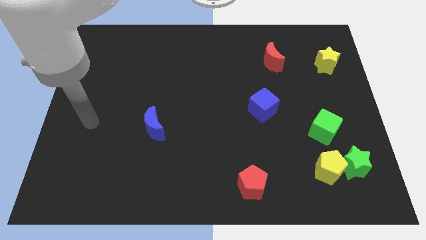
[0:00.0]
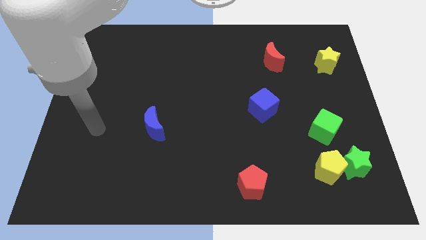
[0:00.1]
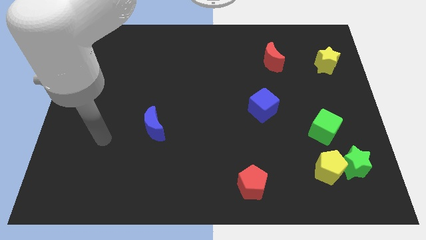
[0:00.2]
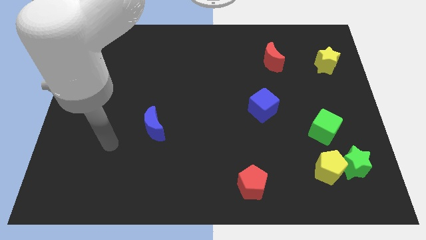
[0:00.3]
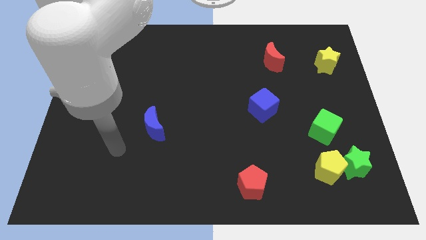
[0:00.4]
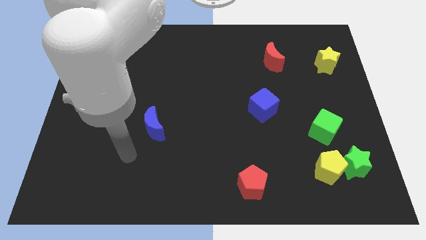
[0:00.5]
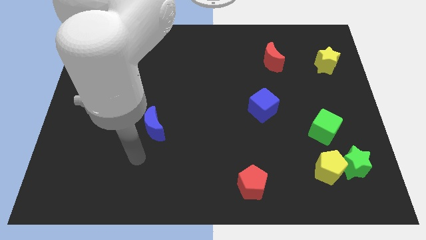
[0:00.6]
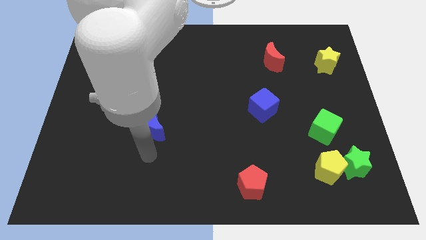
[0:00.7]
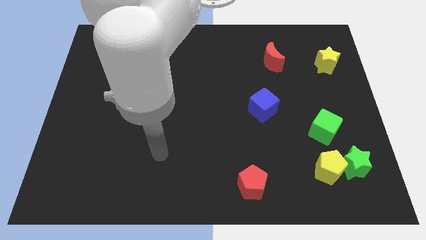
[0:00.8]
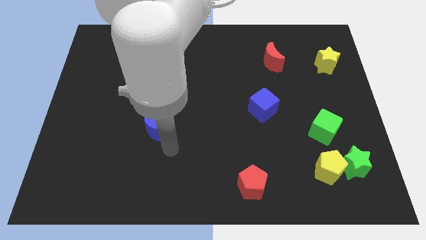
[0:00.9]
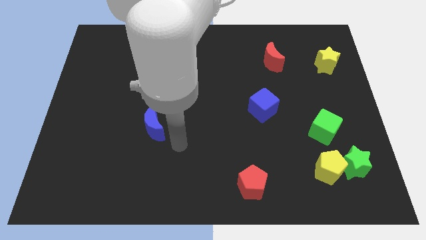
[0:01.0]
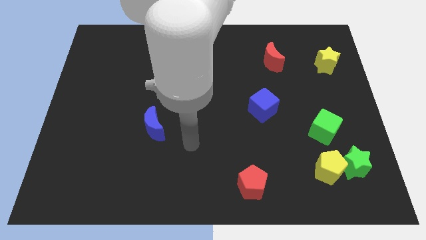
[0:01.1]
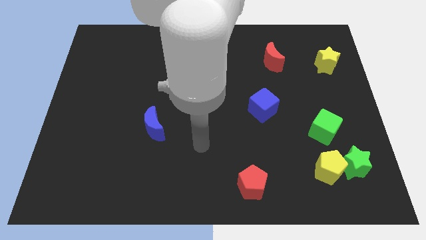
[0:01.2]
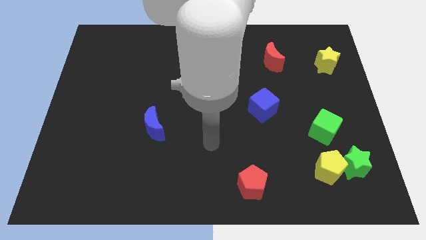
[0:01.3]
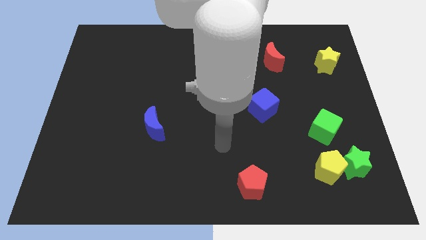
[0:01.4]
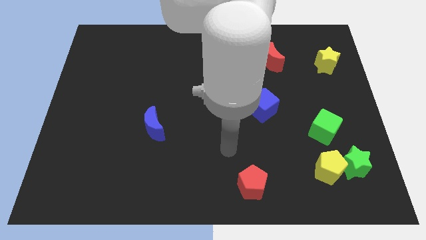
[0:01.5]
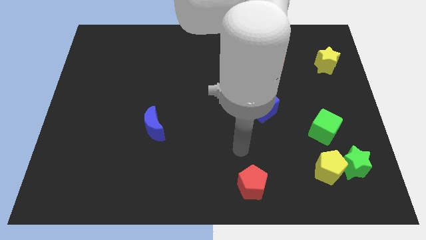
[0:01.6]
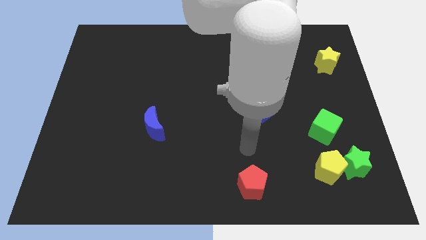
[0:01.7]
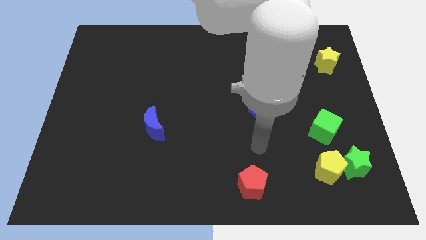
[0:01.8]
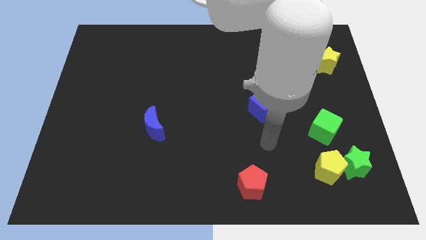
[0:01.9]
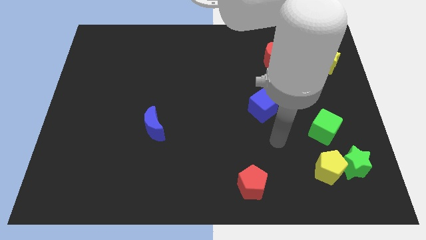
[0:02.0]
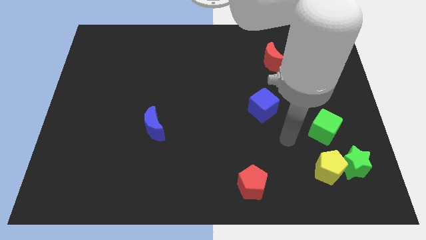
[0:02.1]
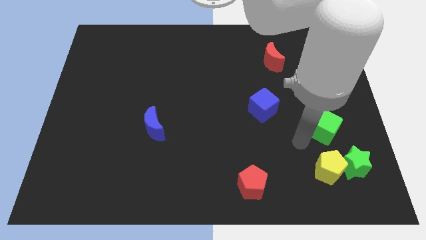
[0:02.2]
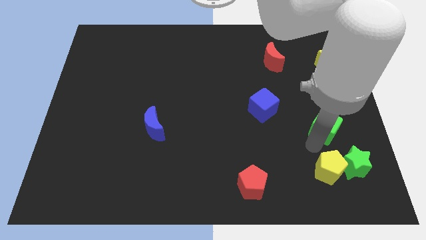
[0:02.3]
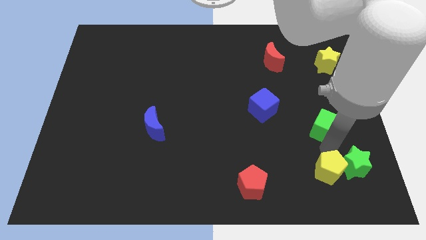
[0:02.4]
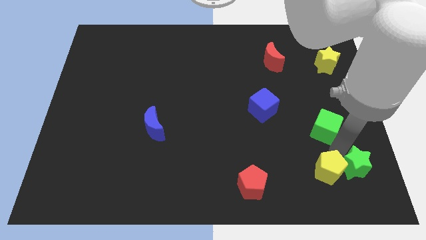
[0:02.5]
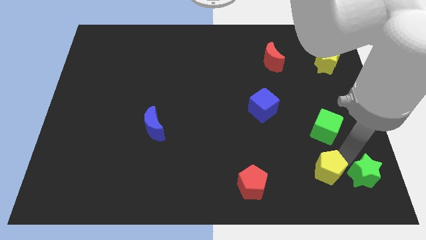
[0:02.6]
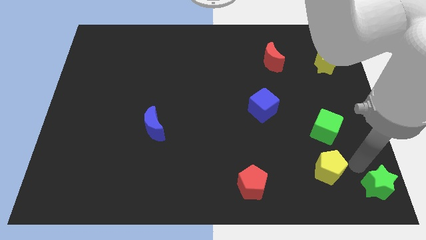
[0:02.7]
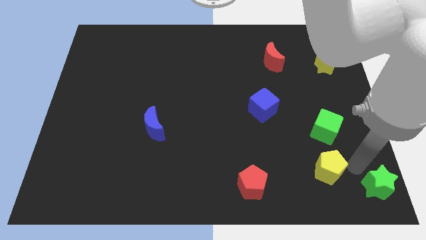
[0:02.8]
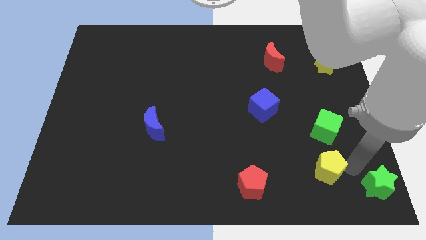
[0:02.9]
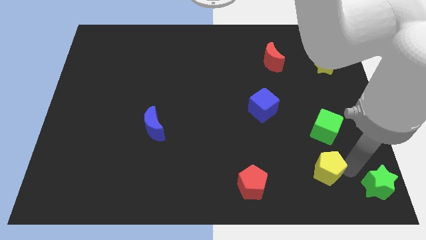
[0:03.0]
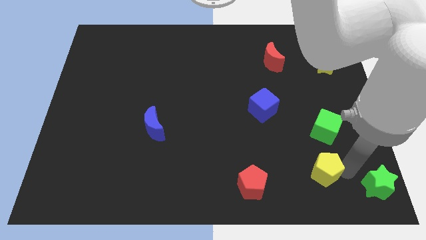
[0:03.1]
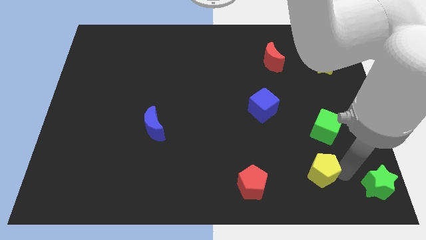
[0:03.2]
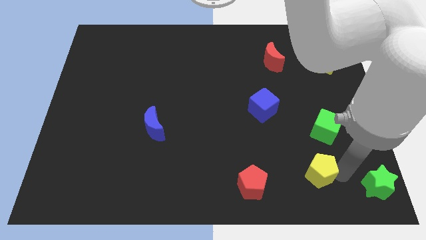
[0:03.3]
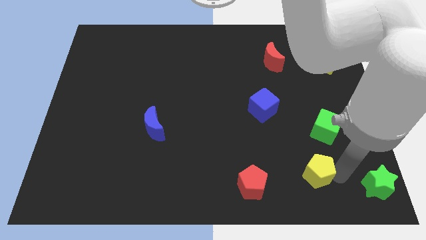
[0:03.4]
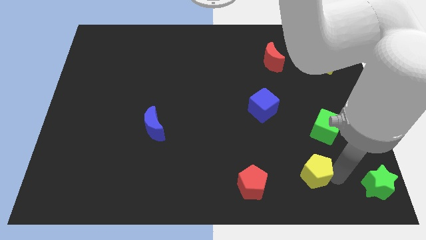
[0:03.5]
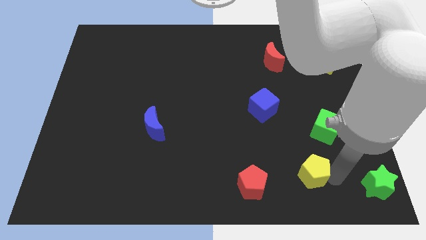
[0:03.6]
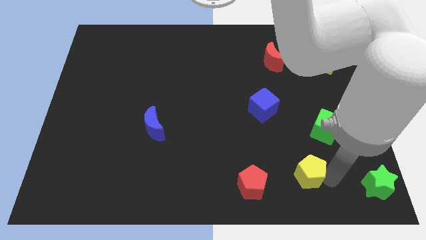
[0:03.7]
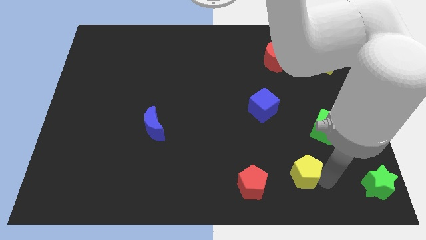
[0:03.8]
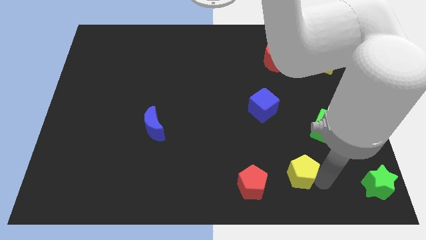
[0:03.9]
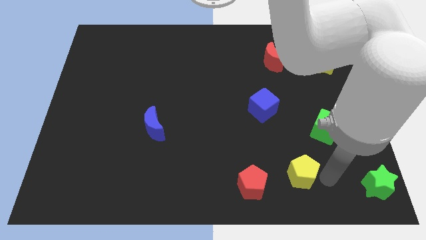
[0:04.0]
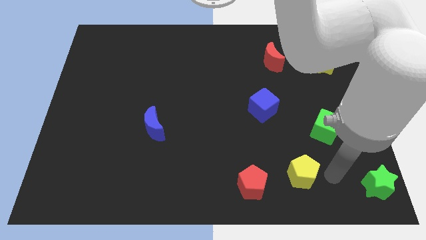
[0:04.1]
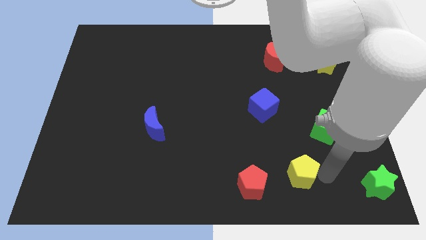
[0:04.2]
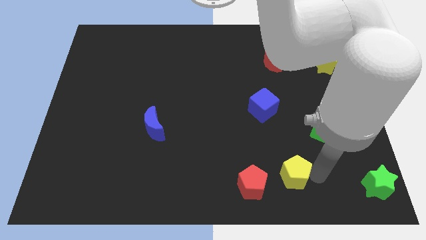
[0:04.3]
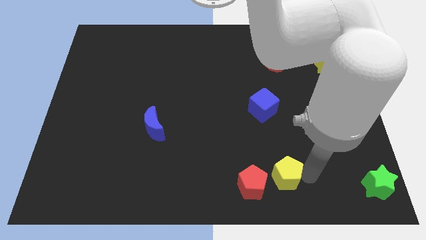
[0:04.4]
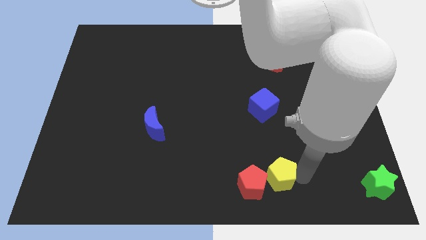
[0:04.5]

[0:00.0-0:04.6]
push the yellow pentagon close to the red pentagon

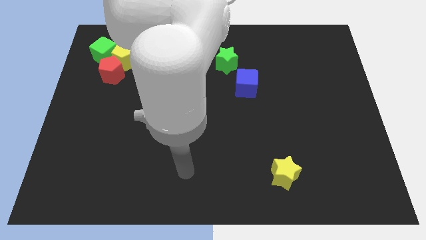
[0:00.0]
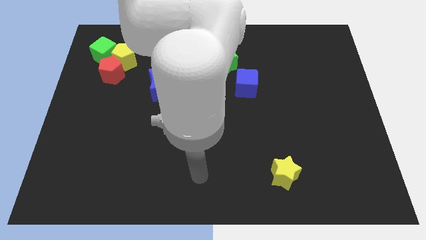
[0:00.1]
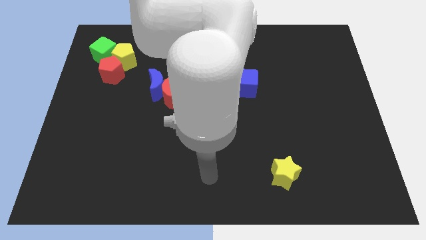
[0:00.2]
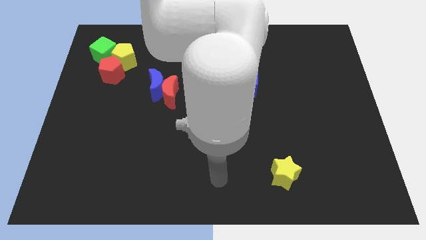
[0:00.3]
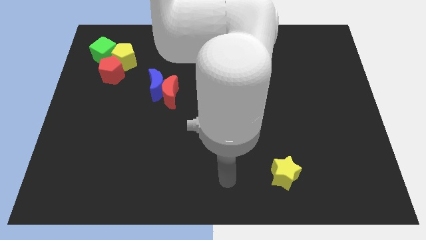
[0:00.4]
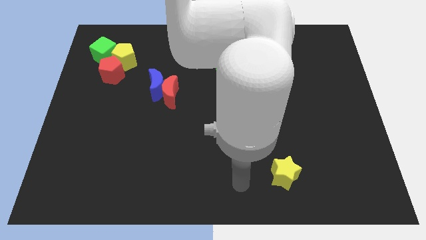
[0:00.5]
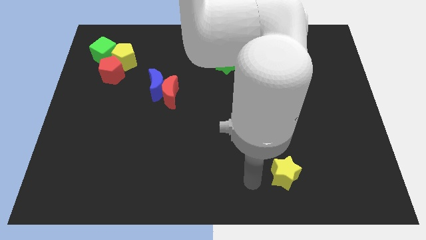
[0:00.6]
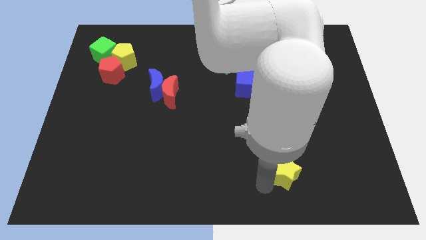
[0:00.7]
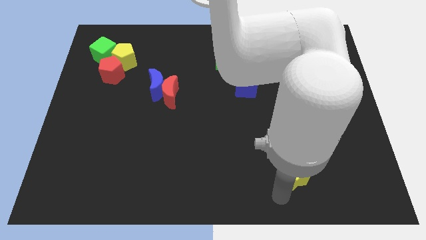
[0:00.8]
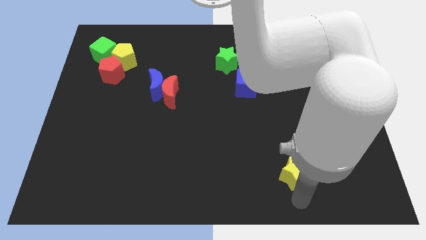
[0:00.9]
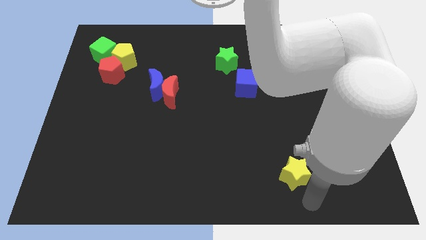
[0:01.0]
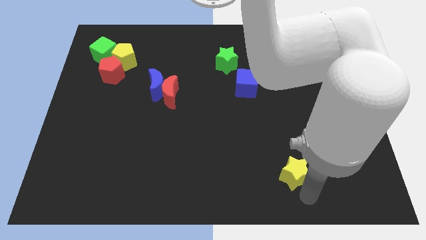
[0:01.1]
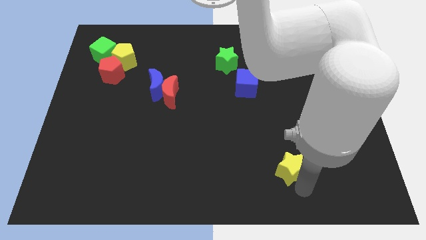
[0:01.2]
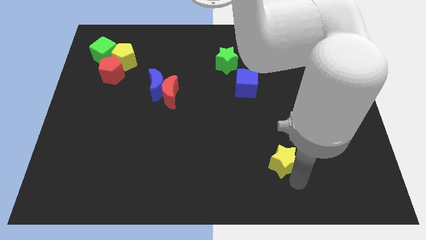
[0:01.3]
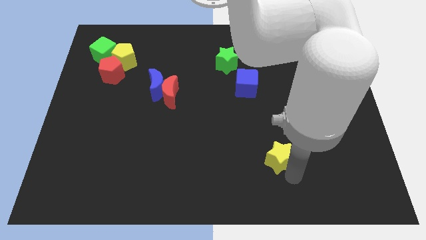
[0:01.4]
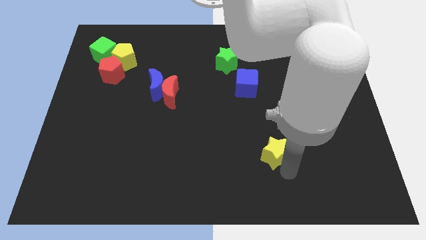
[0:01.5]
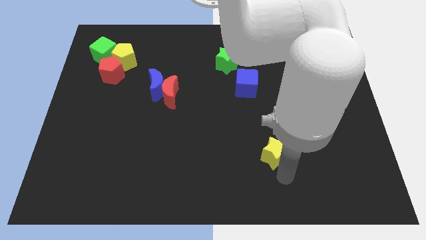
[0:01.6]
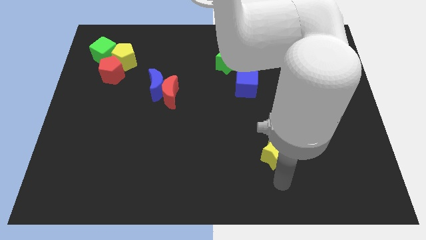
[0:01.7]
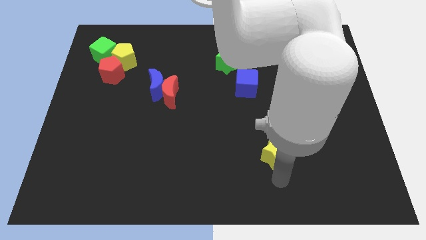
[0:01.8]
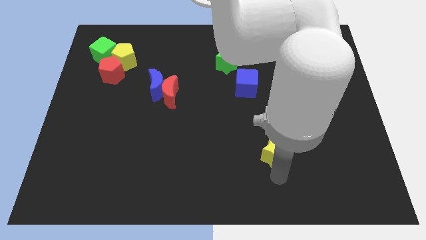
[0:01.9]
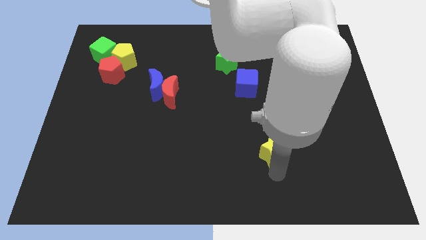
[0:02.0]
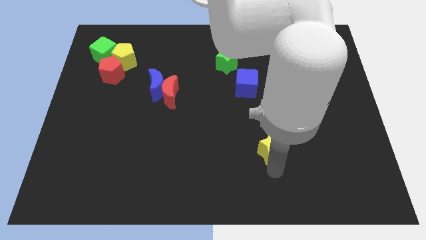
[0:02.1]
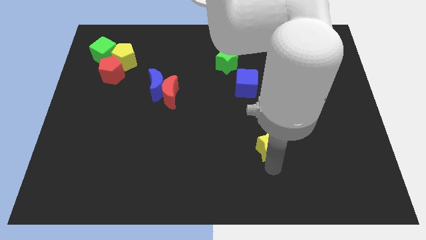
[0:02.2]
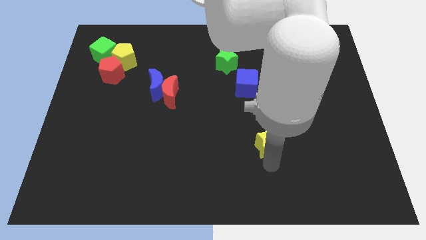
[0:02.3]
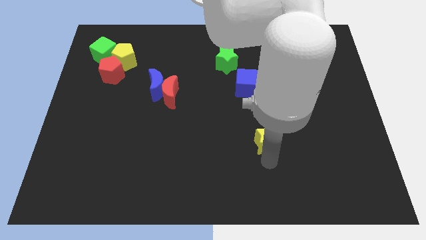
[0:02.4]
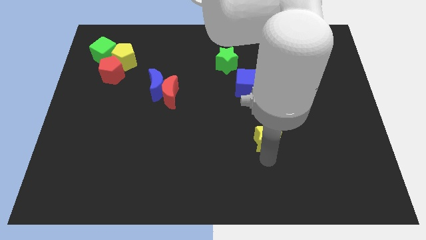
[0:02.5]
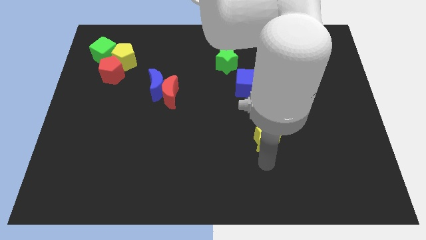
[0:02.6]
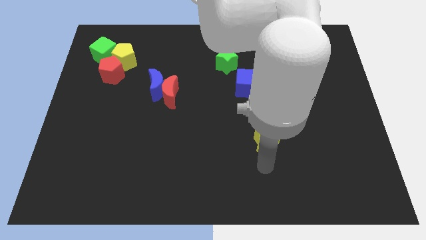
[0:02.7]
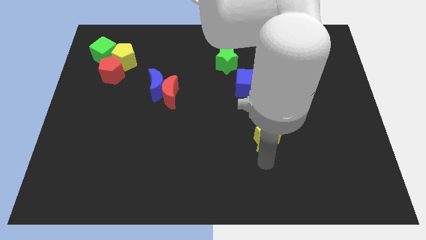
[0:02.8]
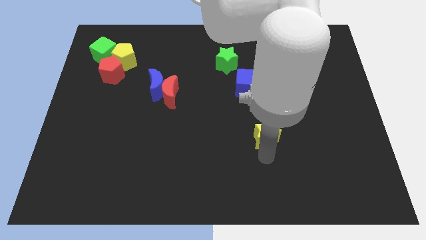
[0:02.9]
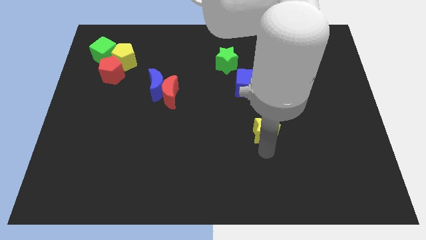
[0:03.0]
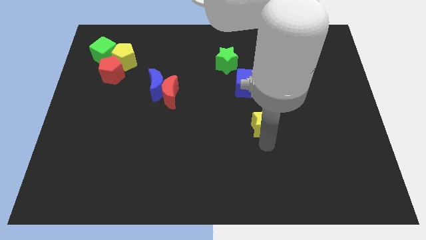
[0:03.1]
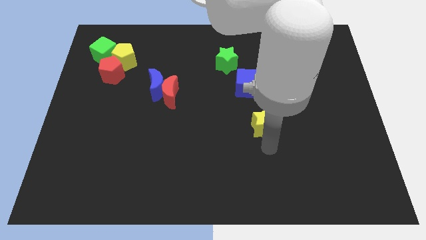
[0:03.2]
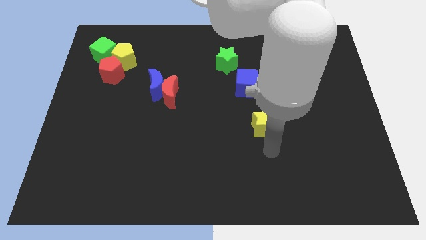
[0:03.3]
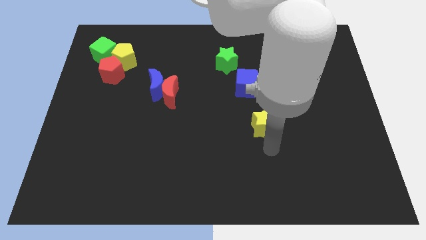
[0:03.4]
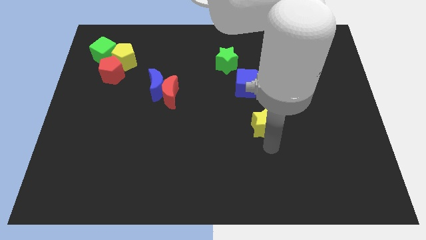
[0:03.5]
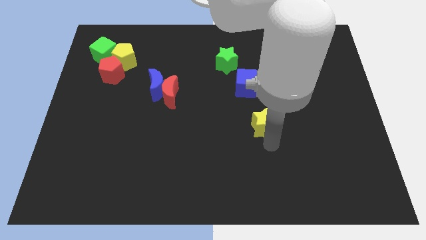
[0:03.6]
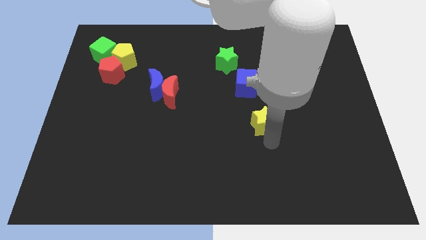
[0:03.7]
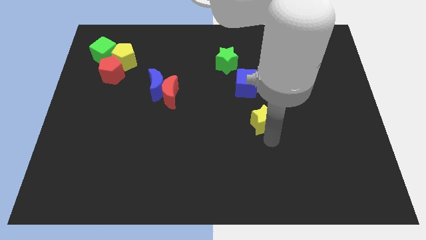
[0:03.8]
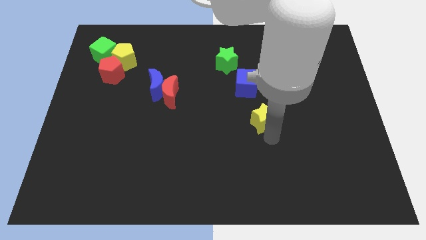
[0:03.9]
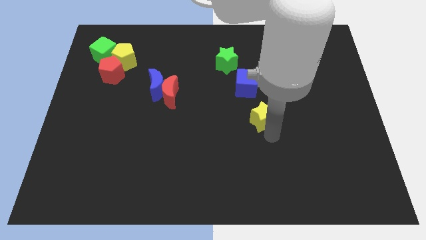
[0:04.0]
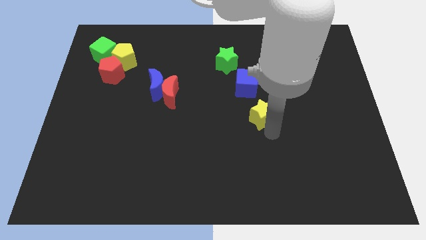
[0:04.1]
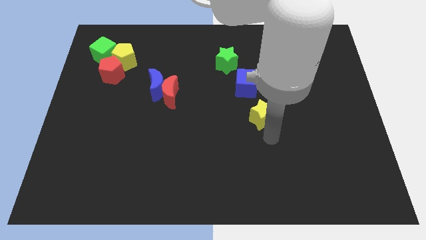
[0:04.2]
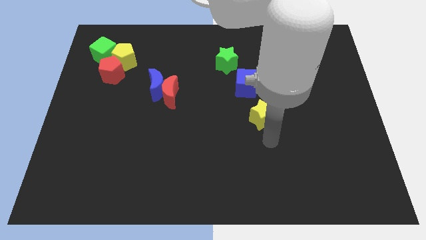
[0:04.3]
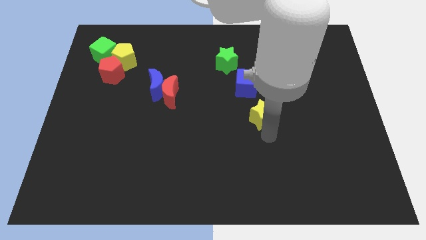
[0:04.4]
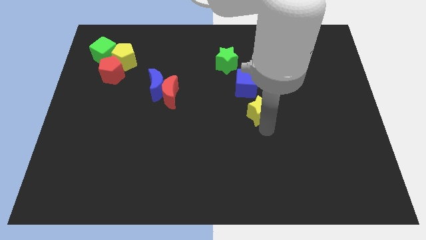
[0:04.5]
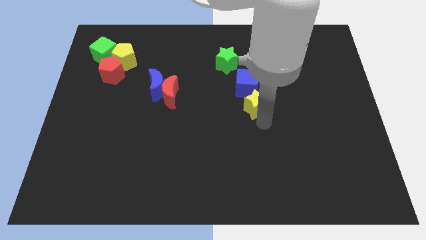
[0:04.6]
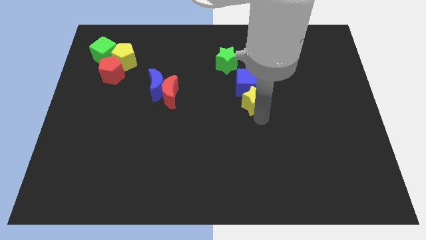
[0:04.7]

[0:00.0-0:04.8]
push the yellow star towards the blue cube
